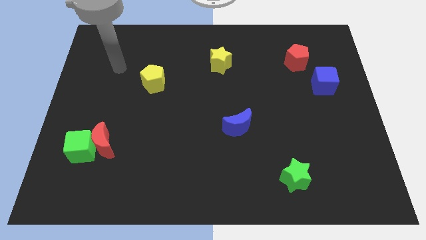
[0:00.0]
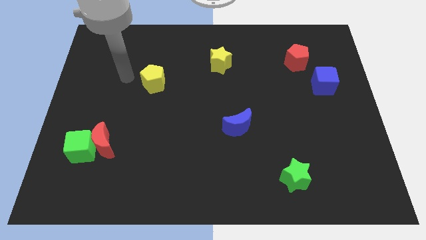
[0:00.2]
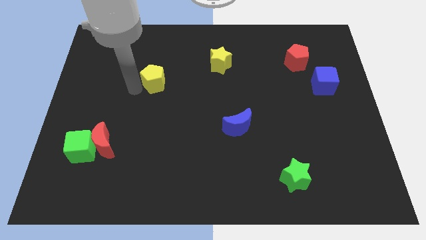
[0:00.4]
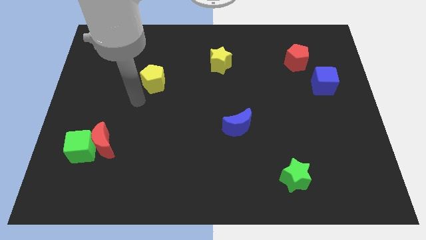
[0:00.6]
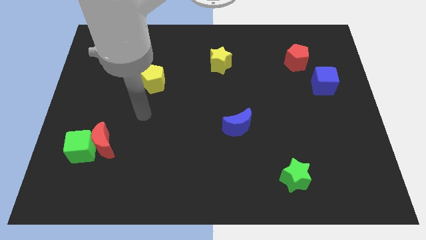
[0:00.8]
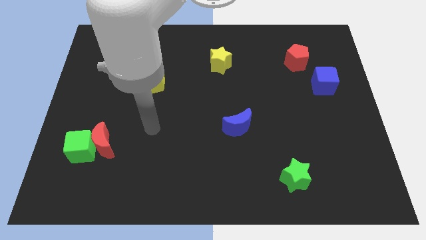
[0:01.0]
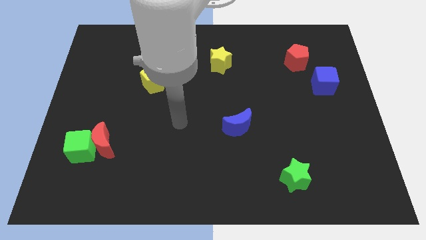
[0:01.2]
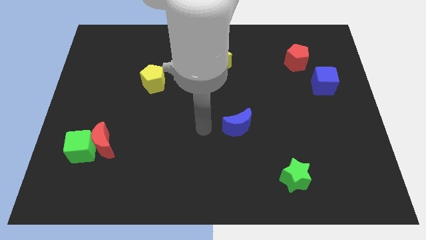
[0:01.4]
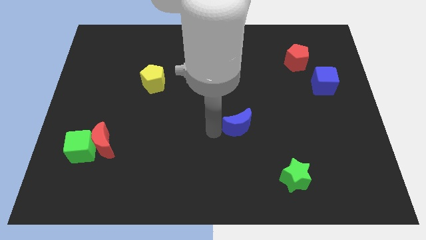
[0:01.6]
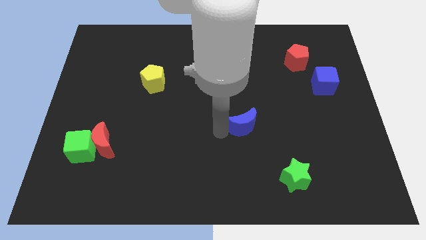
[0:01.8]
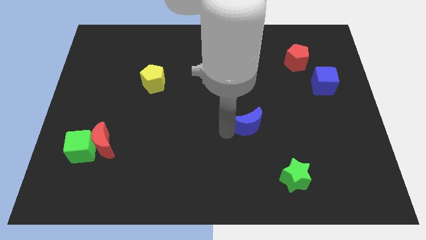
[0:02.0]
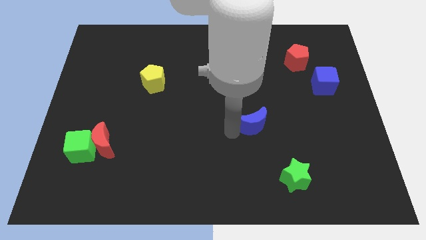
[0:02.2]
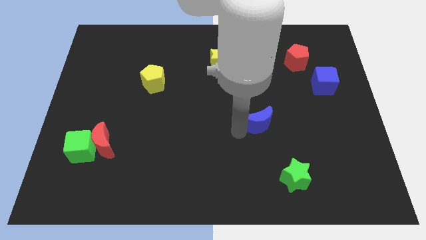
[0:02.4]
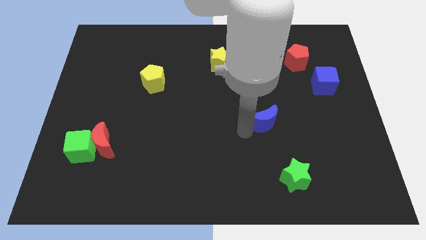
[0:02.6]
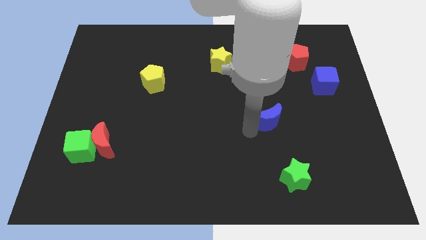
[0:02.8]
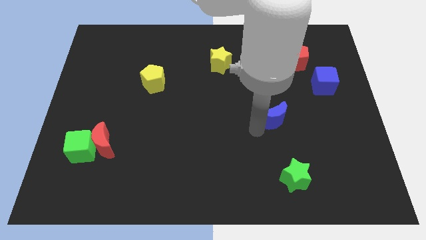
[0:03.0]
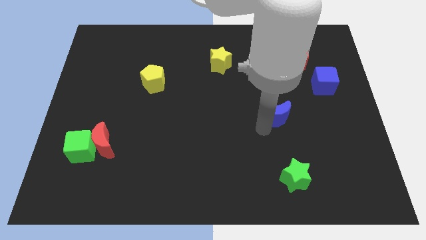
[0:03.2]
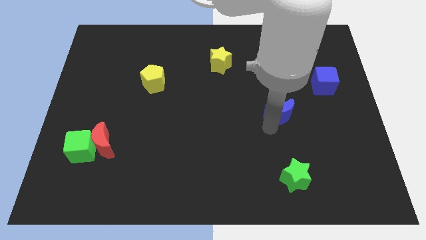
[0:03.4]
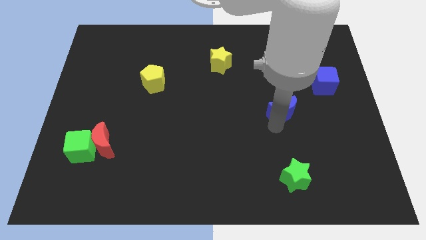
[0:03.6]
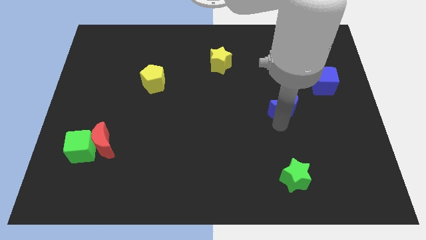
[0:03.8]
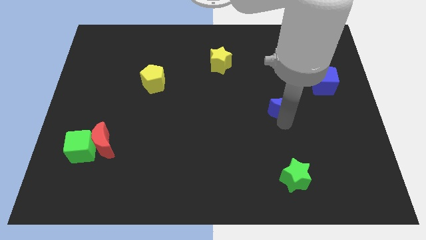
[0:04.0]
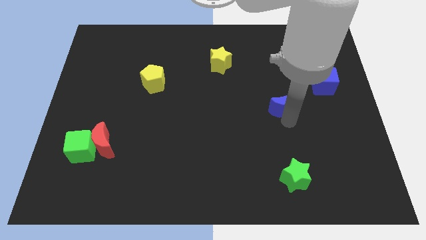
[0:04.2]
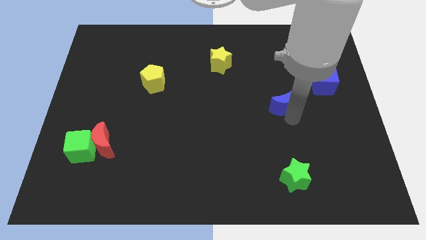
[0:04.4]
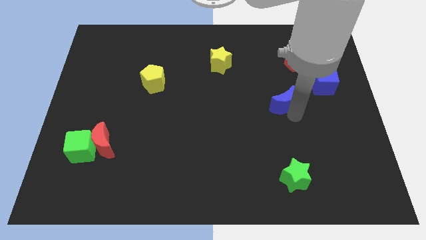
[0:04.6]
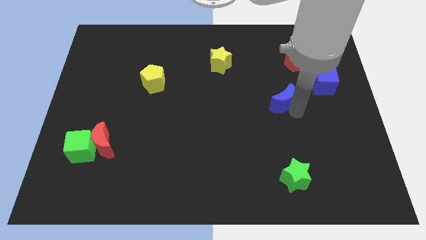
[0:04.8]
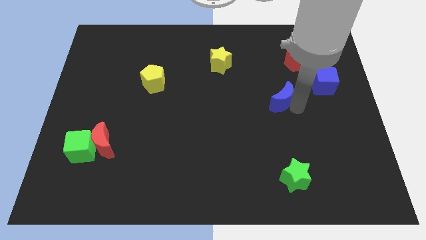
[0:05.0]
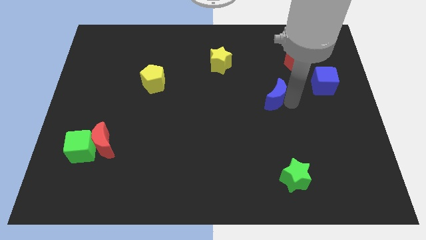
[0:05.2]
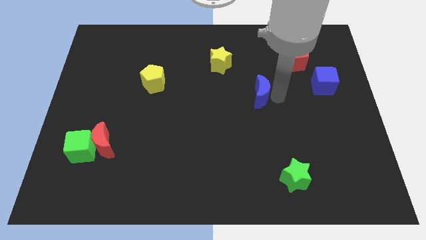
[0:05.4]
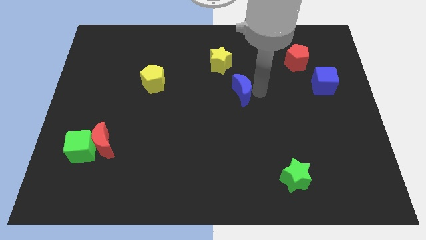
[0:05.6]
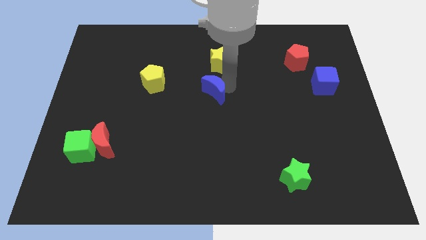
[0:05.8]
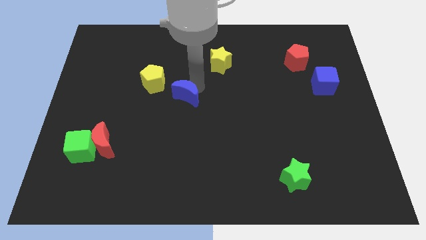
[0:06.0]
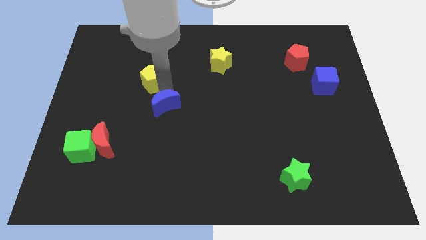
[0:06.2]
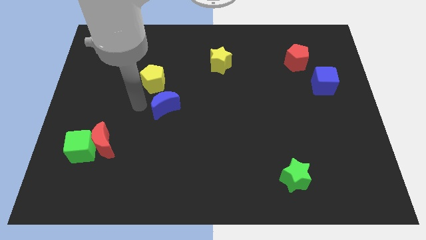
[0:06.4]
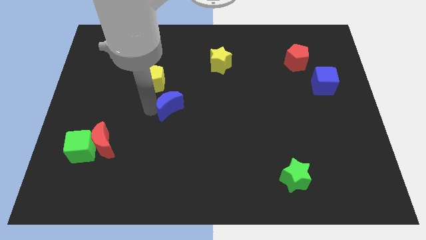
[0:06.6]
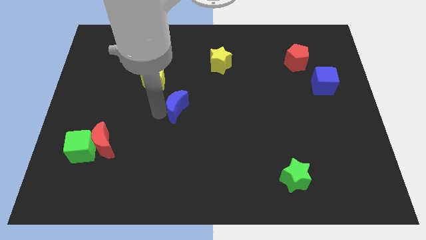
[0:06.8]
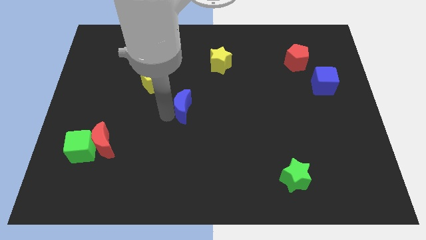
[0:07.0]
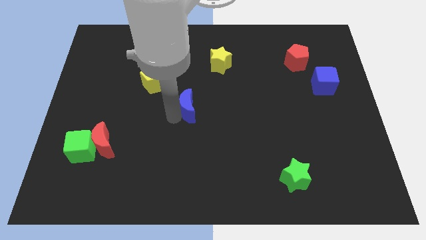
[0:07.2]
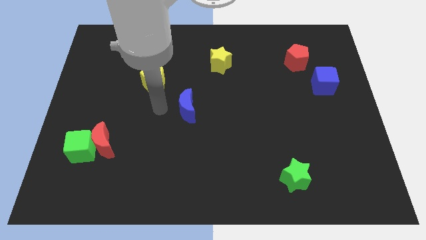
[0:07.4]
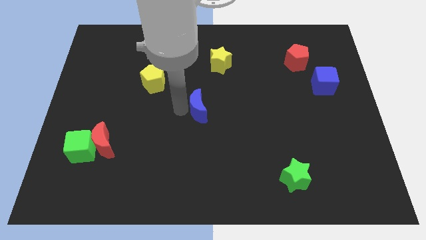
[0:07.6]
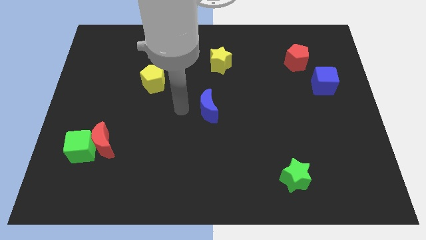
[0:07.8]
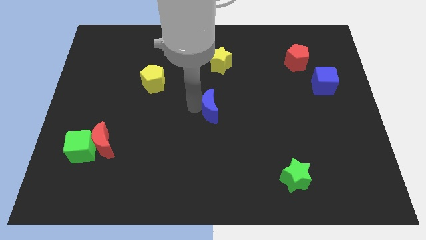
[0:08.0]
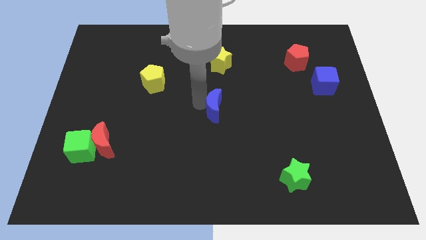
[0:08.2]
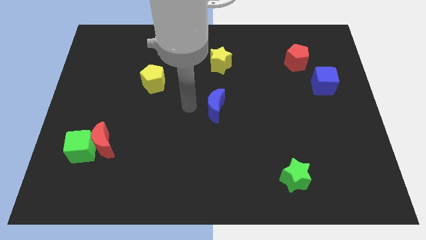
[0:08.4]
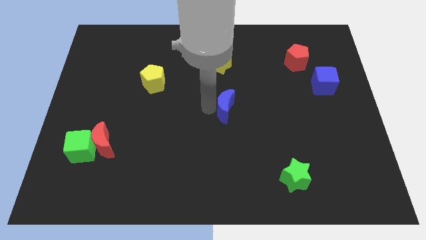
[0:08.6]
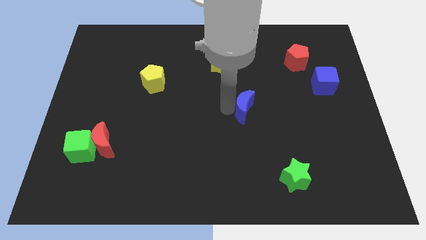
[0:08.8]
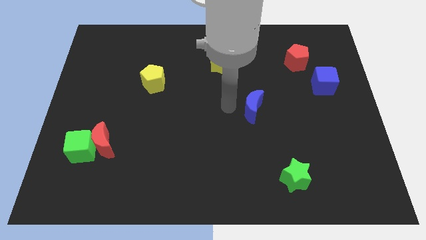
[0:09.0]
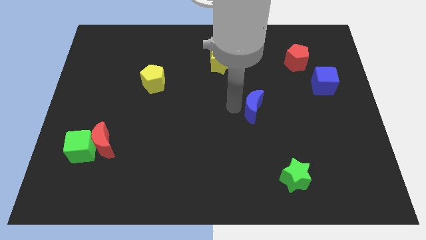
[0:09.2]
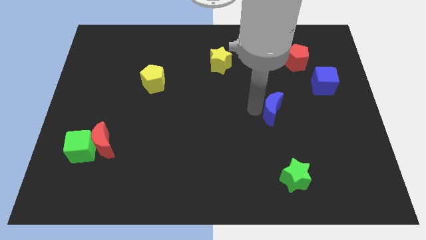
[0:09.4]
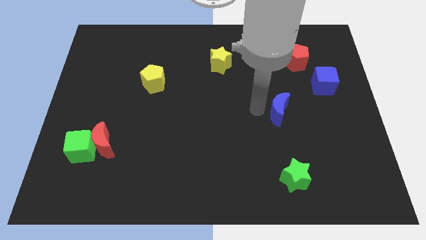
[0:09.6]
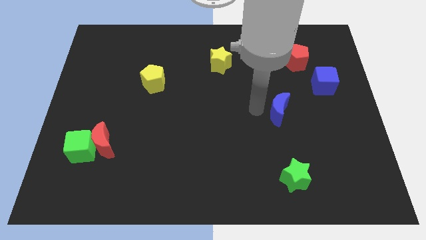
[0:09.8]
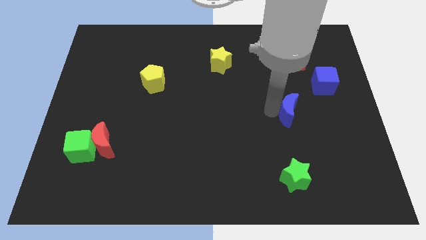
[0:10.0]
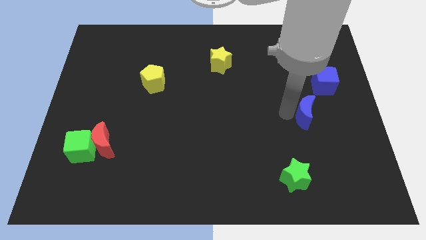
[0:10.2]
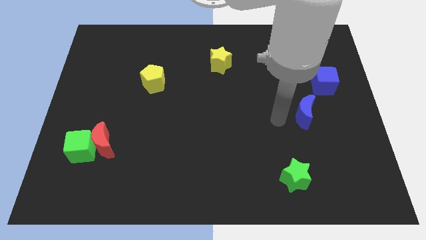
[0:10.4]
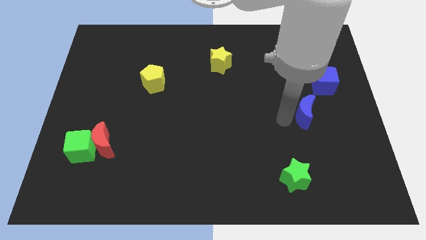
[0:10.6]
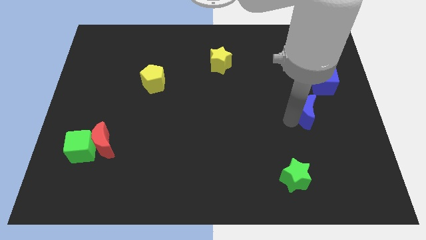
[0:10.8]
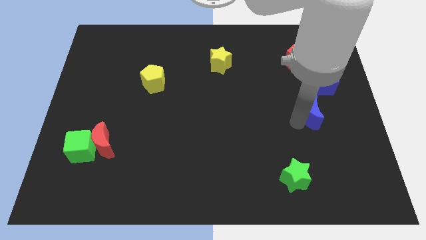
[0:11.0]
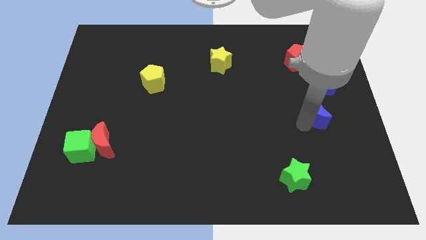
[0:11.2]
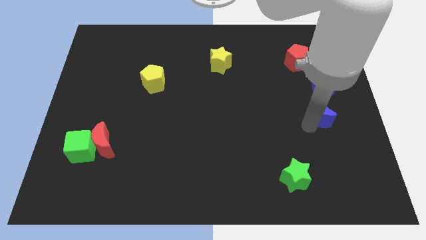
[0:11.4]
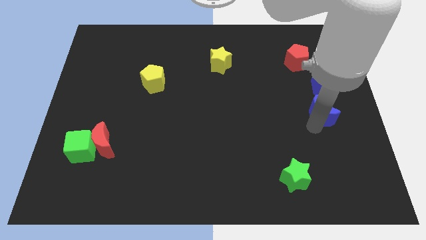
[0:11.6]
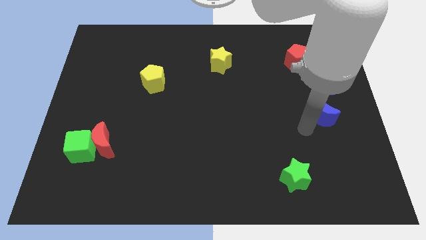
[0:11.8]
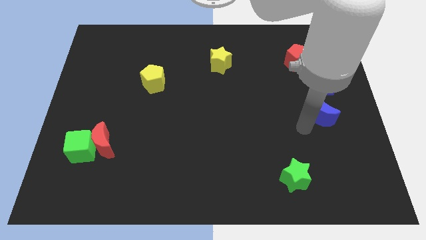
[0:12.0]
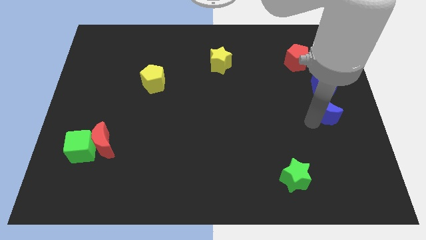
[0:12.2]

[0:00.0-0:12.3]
put the blue moon to the center right
